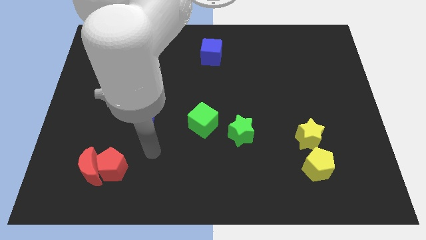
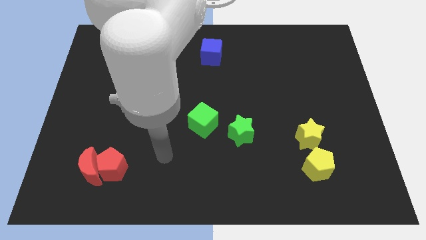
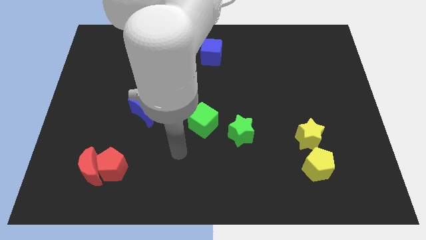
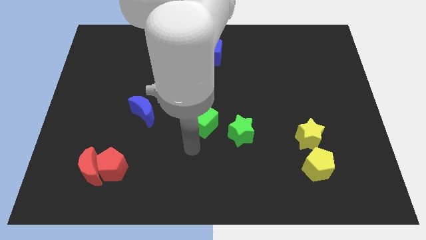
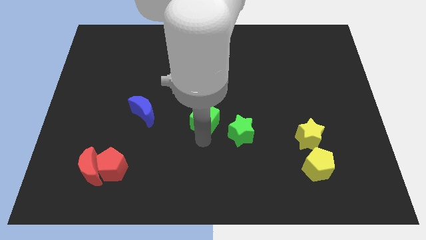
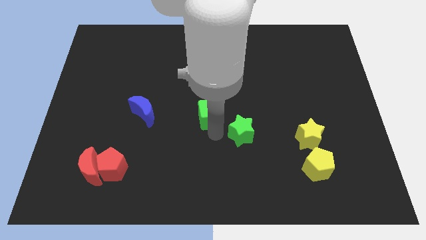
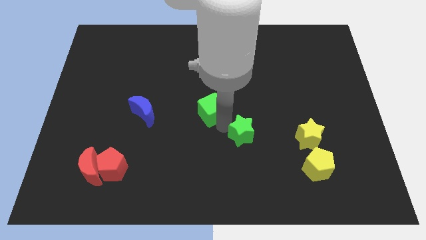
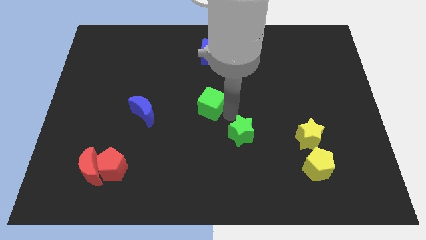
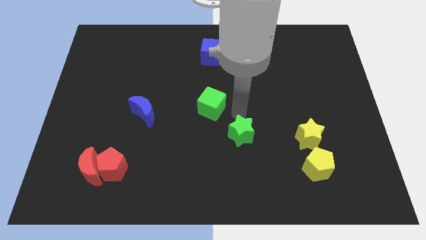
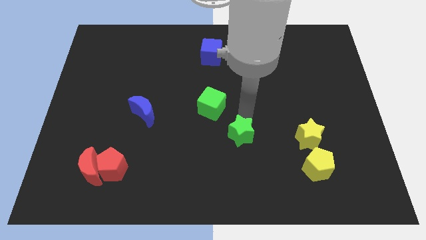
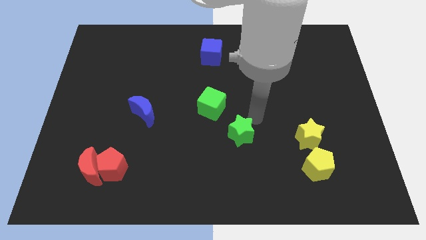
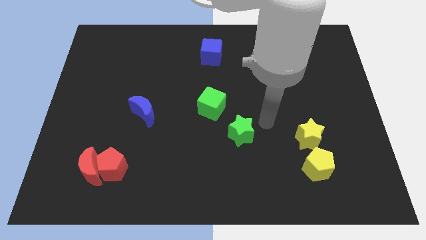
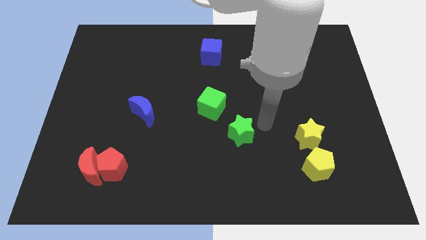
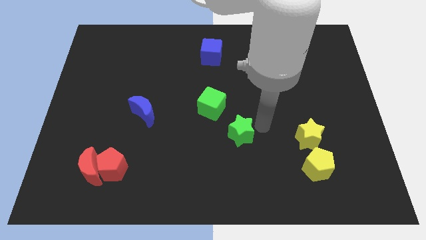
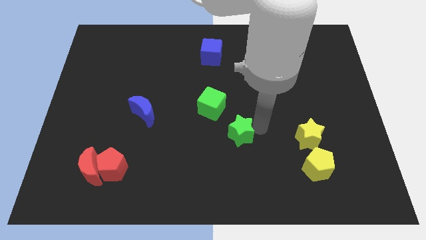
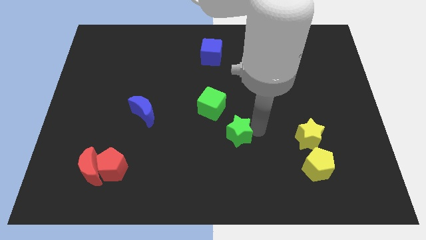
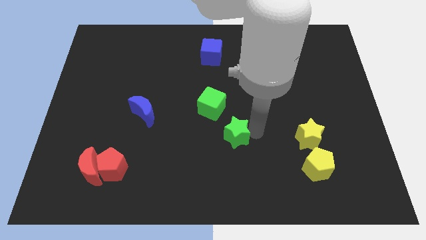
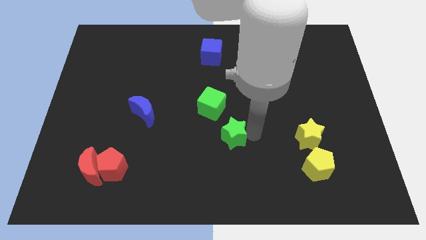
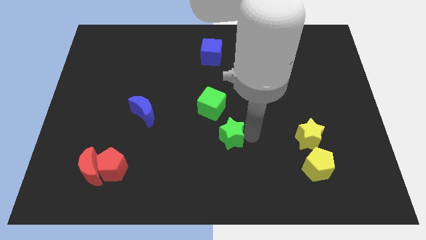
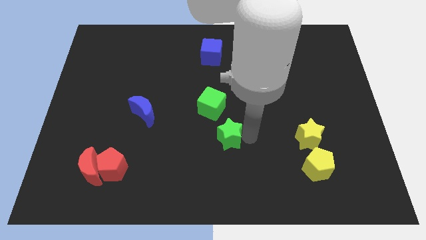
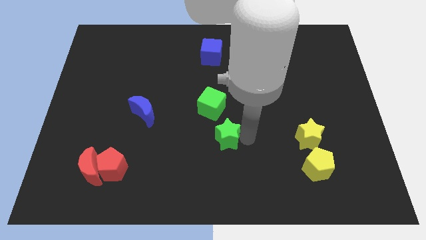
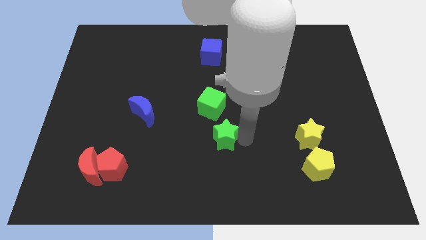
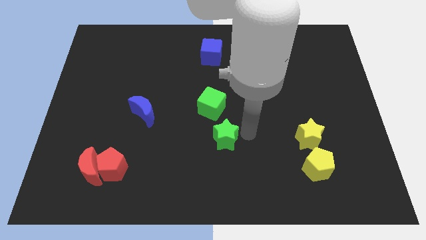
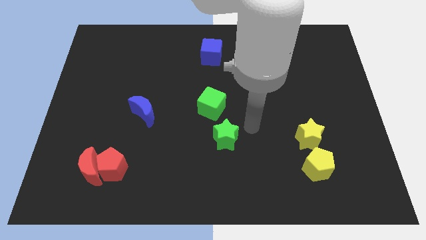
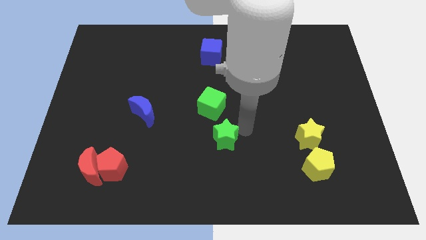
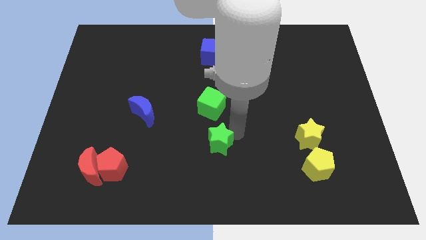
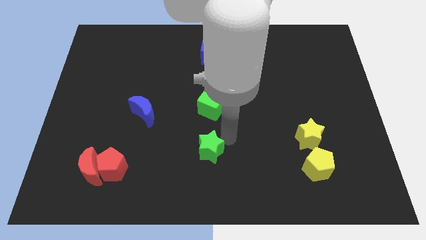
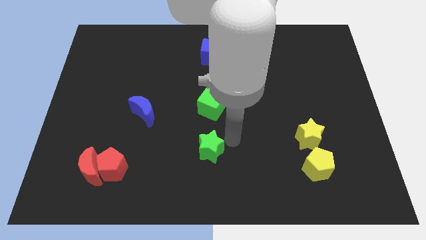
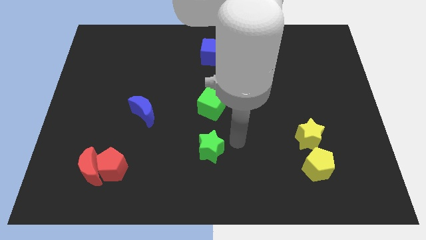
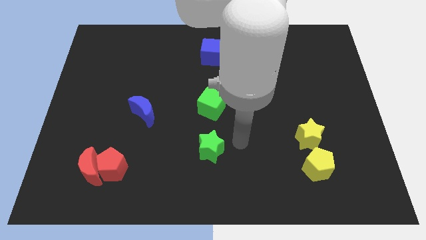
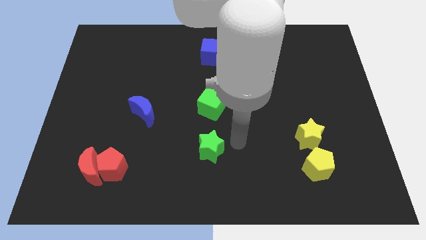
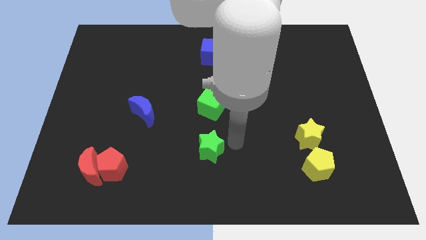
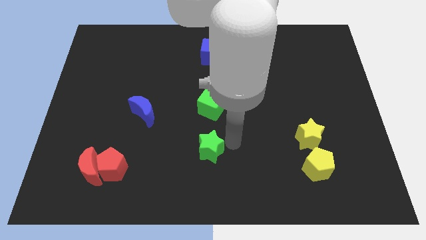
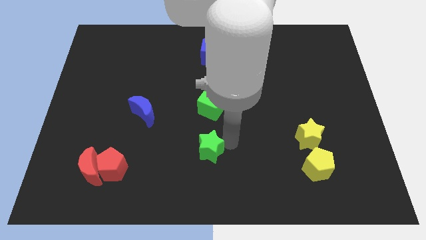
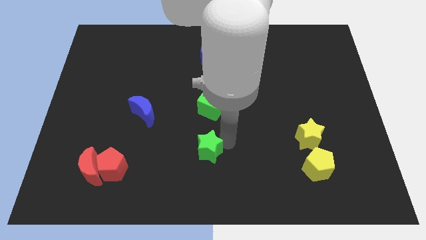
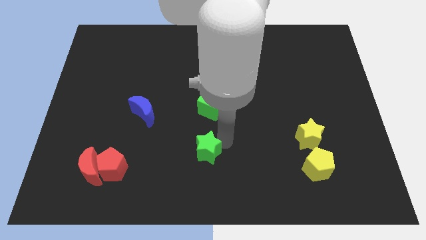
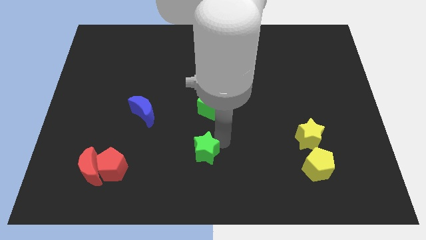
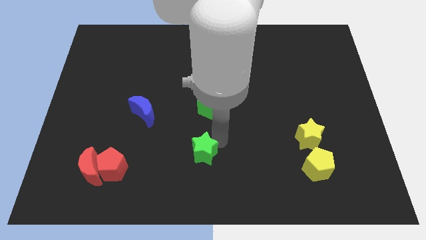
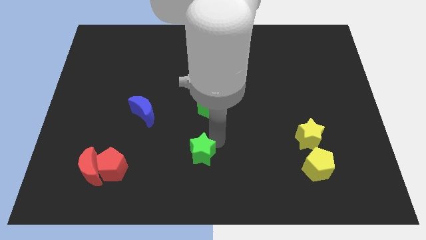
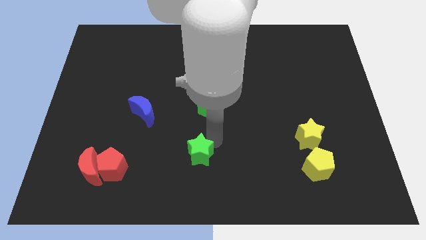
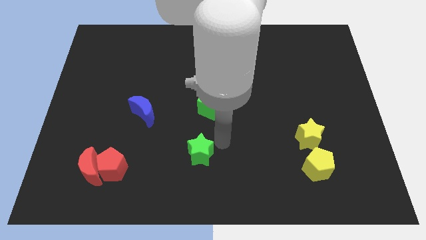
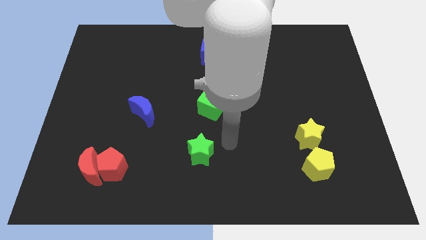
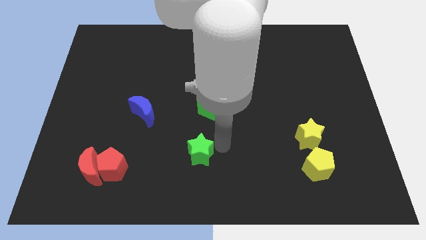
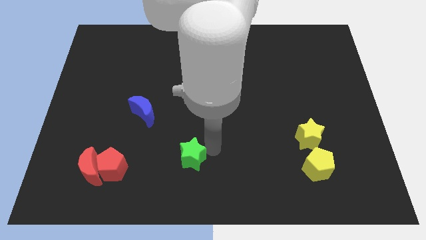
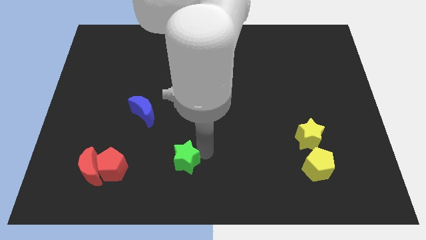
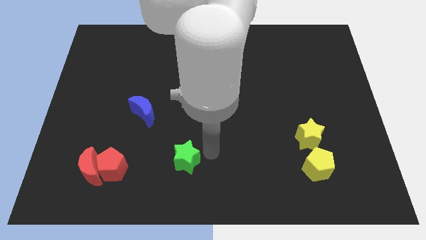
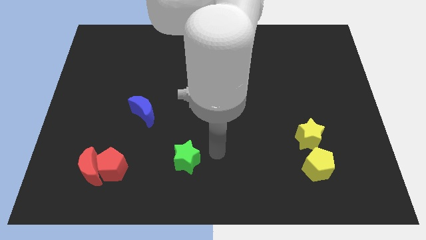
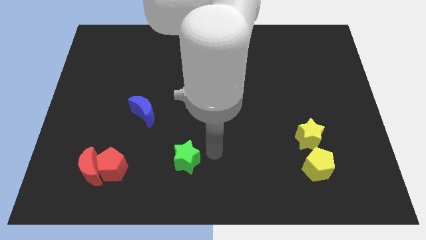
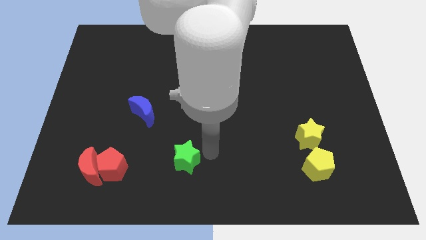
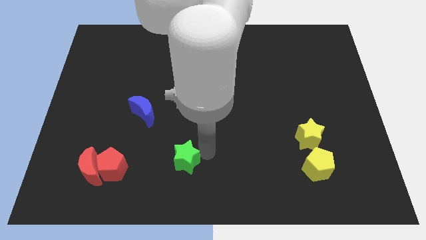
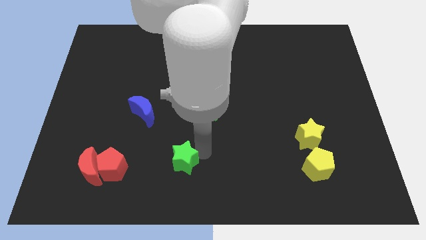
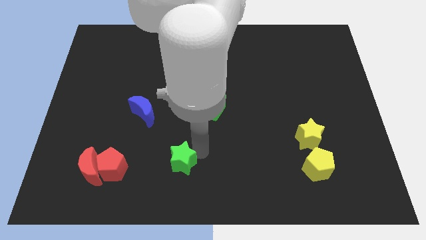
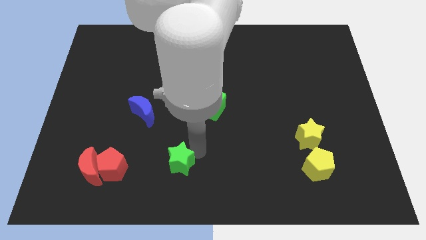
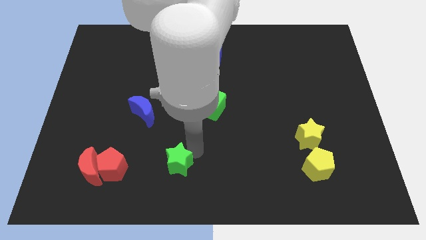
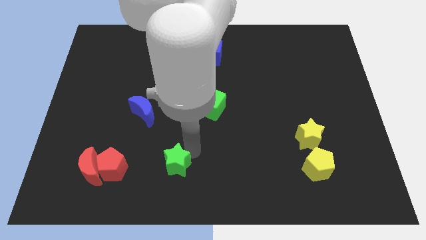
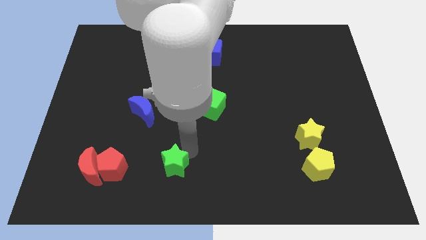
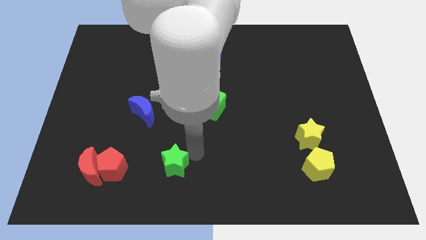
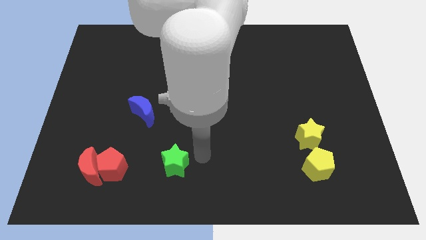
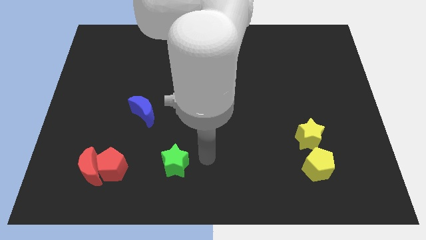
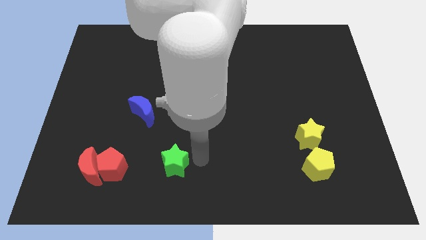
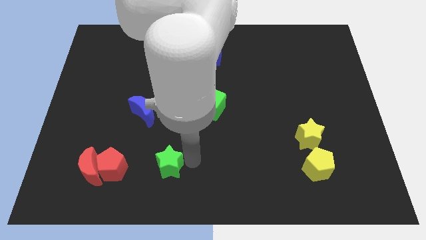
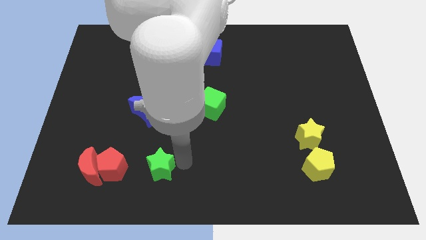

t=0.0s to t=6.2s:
slide the green star right of the red moon

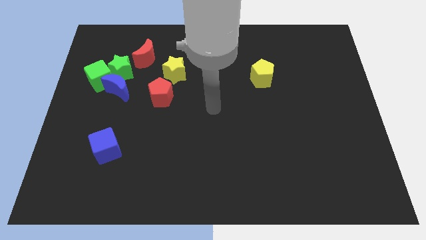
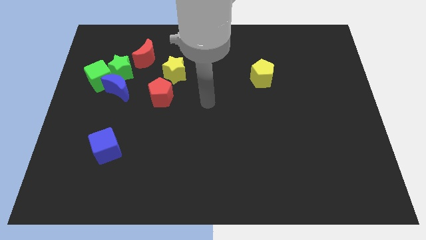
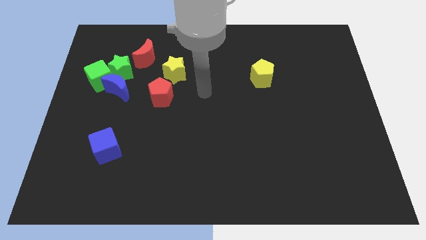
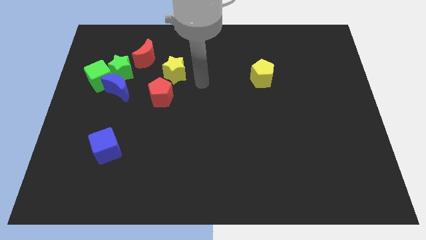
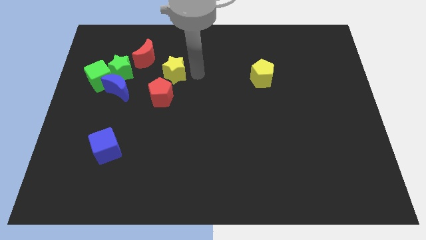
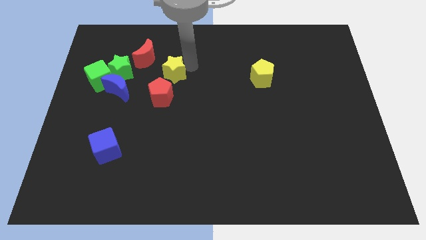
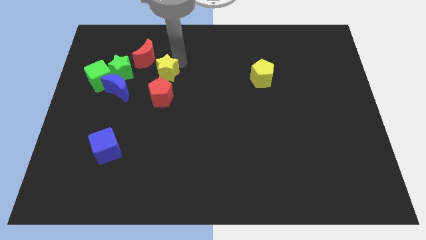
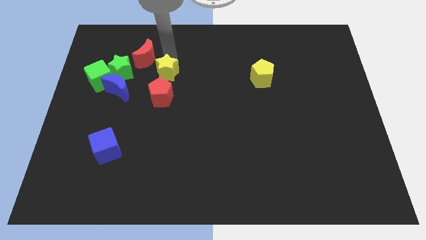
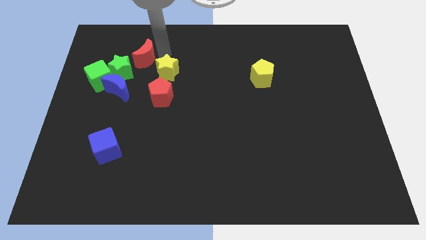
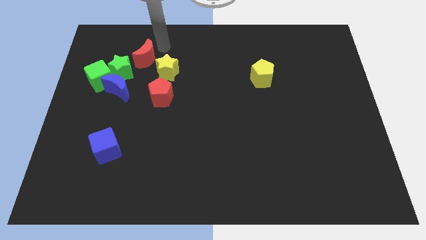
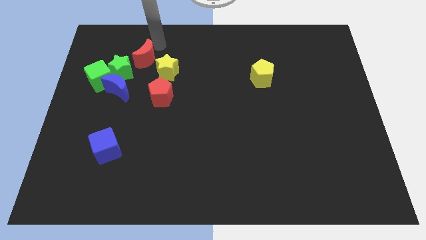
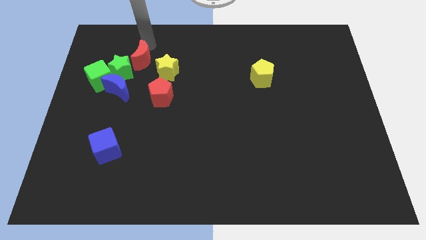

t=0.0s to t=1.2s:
push the green star to the bottom of the red moon
